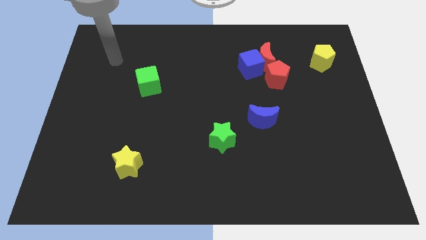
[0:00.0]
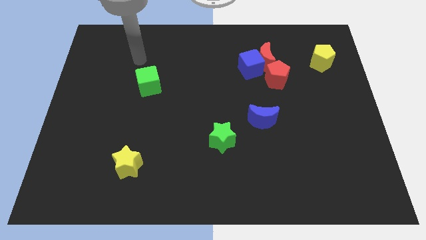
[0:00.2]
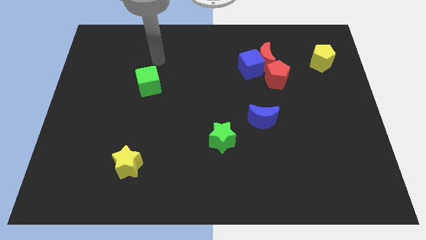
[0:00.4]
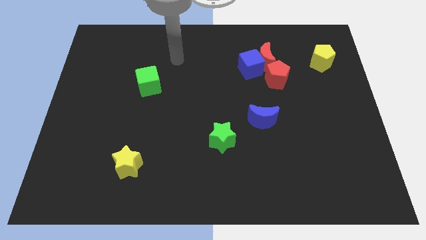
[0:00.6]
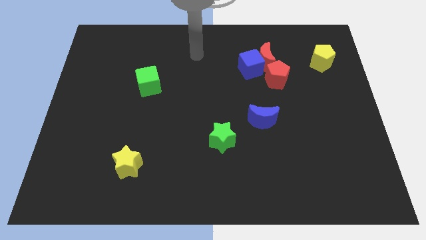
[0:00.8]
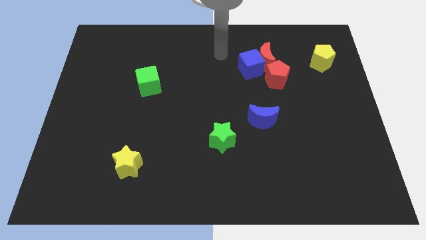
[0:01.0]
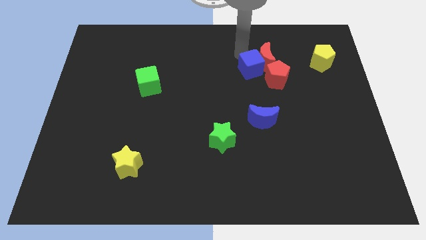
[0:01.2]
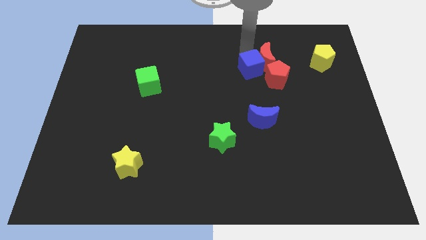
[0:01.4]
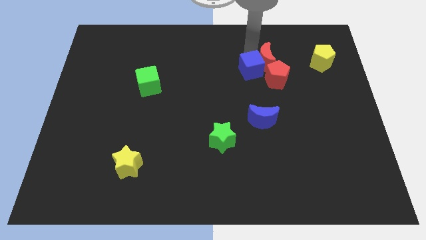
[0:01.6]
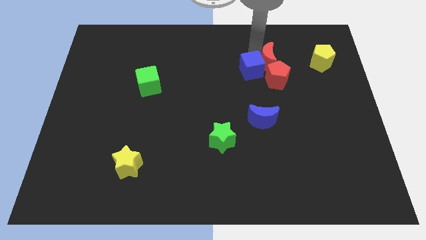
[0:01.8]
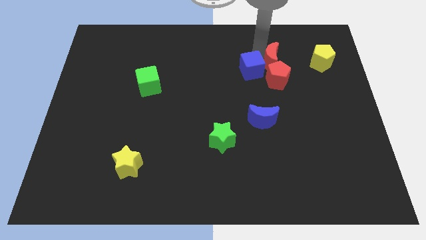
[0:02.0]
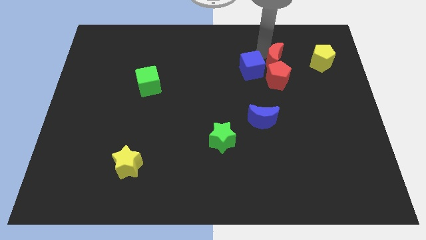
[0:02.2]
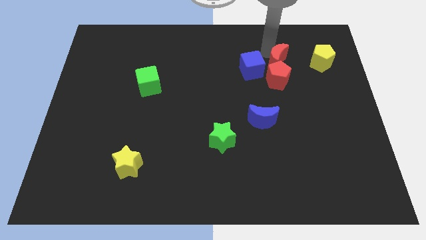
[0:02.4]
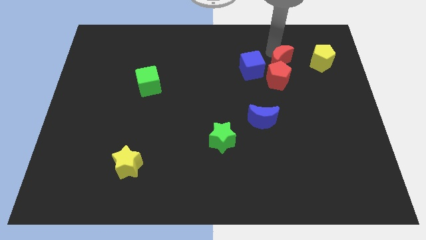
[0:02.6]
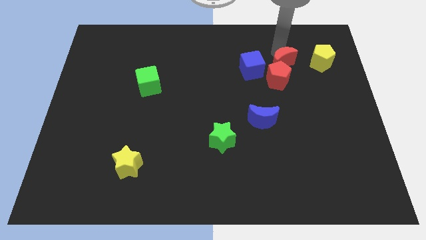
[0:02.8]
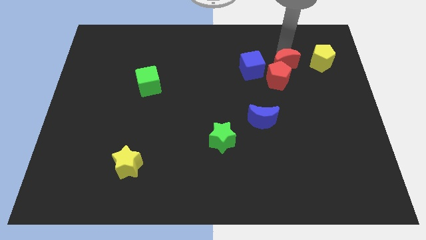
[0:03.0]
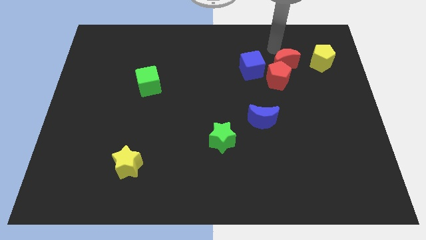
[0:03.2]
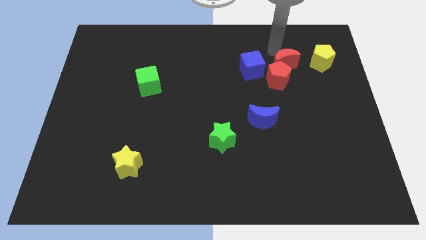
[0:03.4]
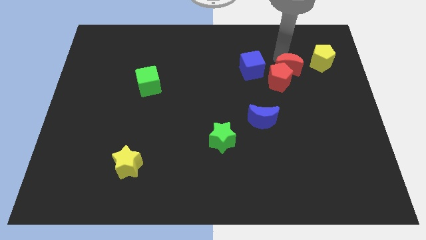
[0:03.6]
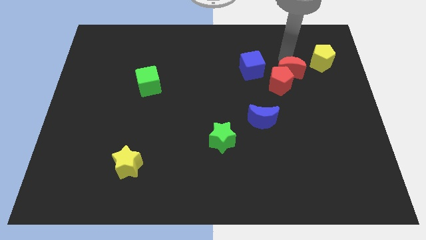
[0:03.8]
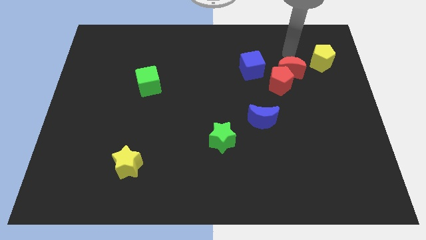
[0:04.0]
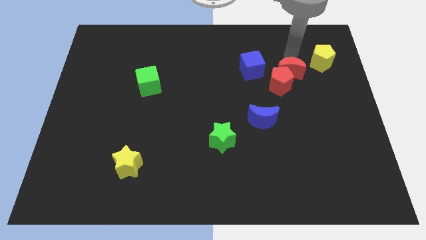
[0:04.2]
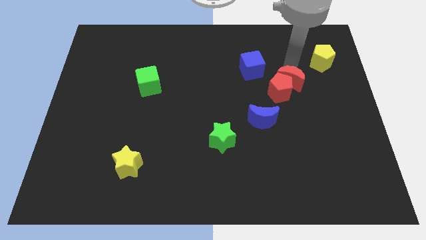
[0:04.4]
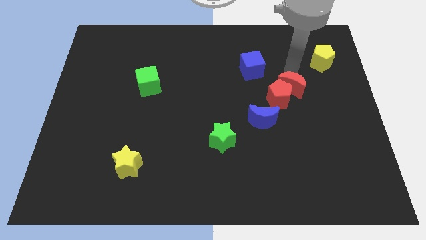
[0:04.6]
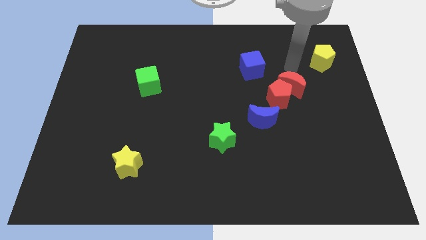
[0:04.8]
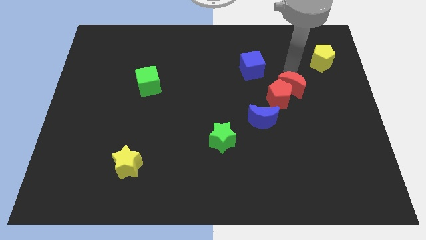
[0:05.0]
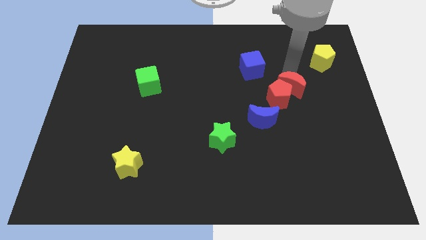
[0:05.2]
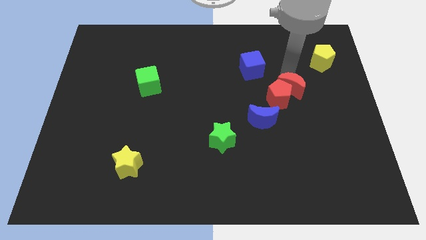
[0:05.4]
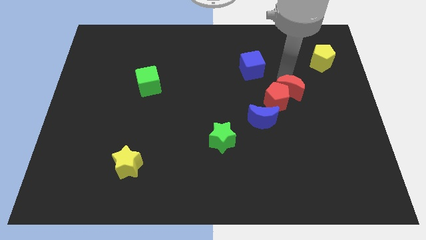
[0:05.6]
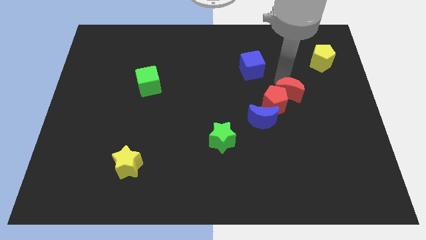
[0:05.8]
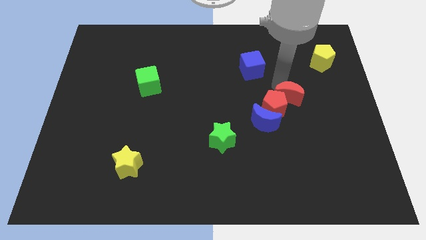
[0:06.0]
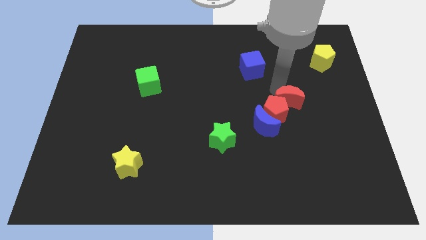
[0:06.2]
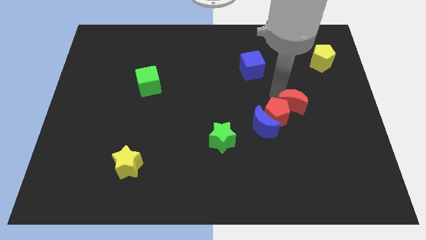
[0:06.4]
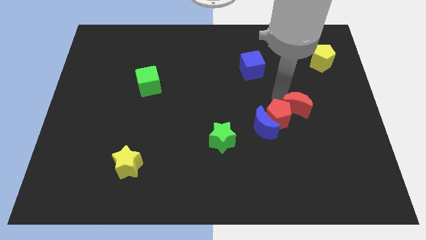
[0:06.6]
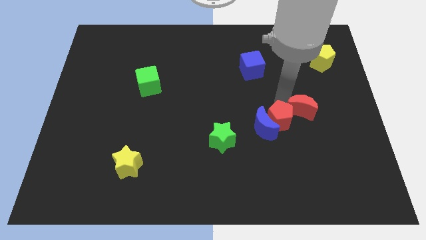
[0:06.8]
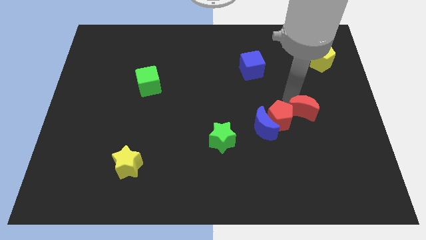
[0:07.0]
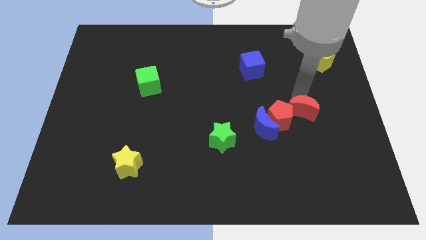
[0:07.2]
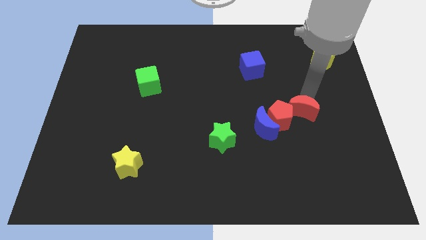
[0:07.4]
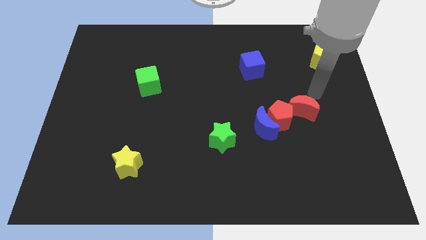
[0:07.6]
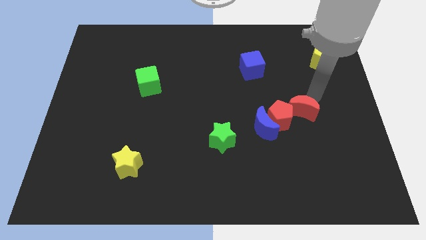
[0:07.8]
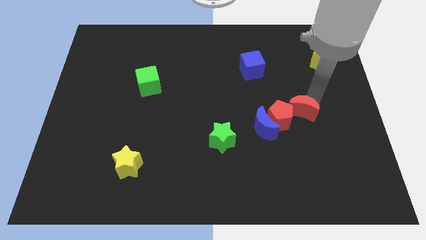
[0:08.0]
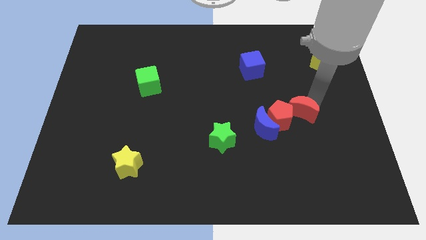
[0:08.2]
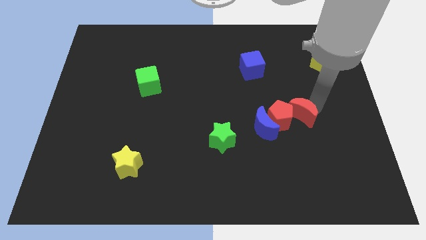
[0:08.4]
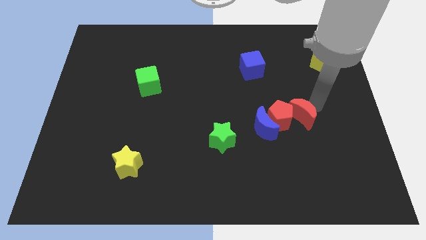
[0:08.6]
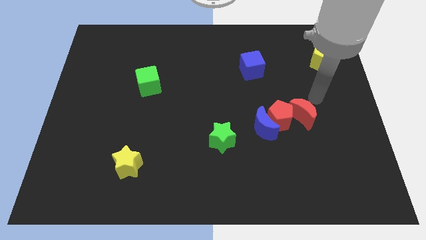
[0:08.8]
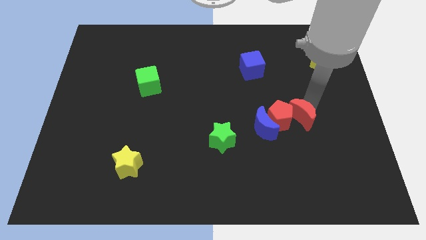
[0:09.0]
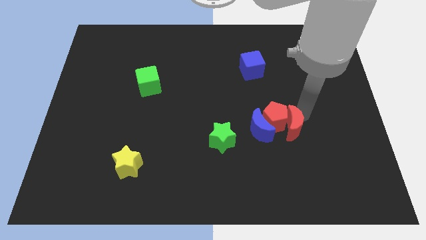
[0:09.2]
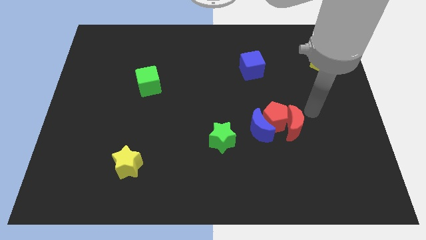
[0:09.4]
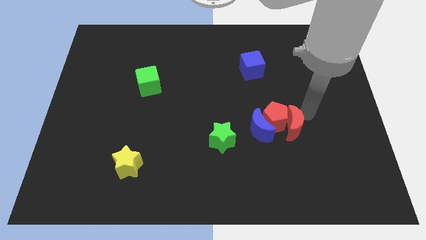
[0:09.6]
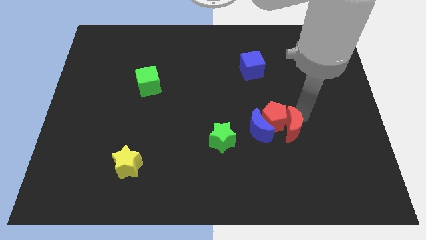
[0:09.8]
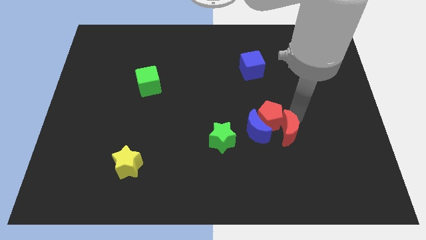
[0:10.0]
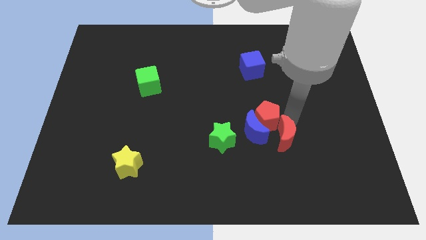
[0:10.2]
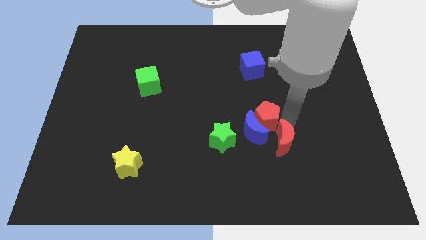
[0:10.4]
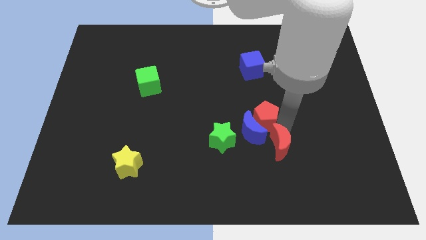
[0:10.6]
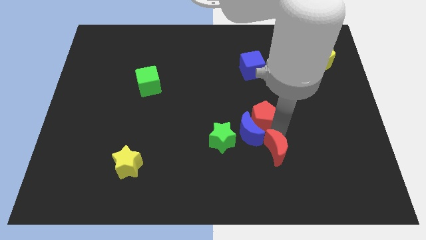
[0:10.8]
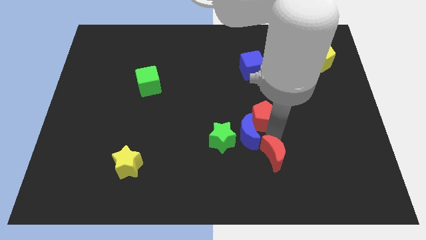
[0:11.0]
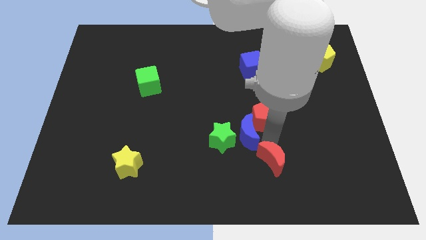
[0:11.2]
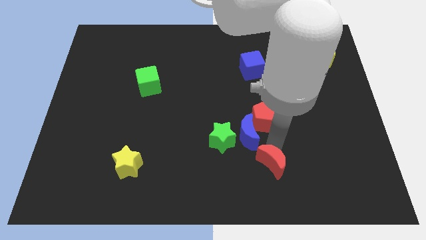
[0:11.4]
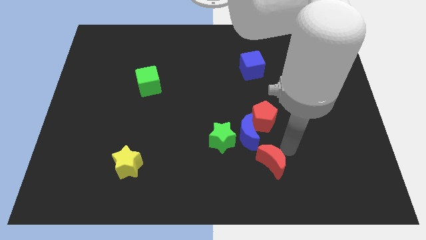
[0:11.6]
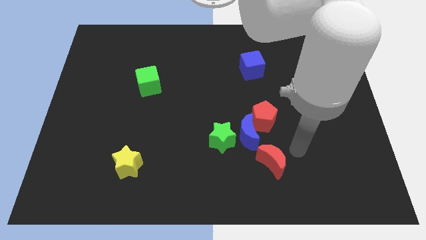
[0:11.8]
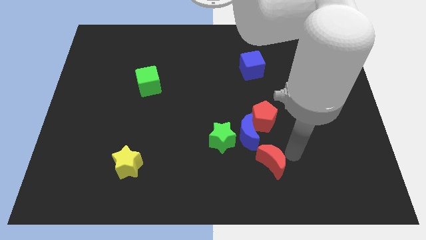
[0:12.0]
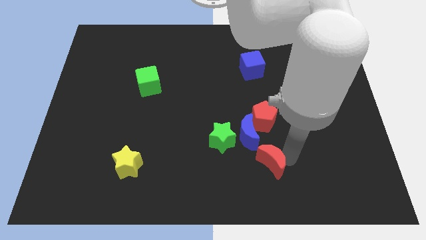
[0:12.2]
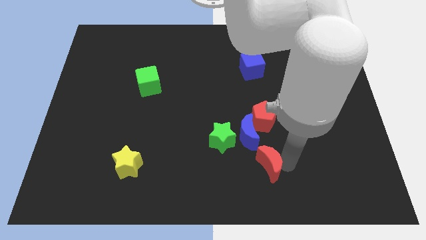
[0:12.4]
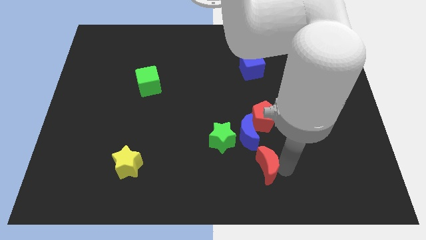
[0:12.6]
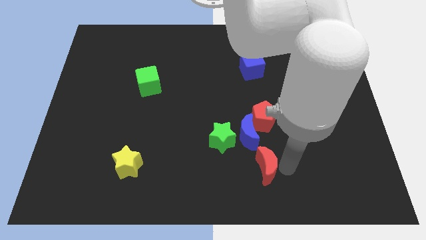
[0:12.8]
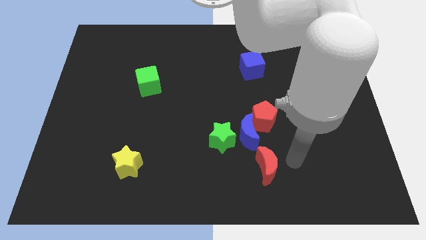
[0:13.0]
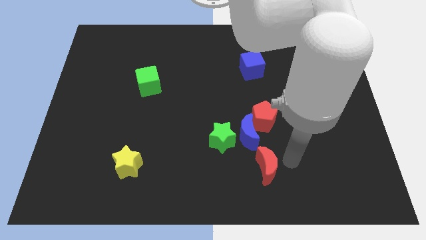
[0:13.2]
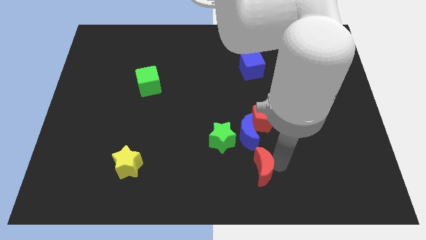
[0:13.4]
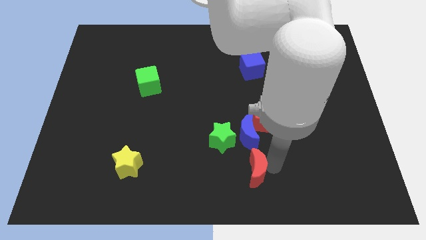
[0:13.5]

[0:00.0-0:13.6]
slide the red moon to the bottom
